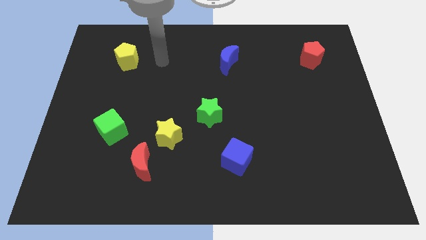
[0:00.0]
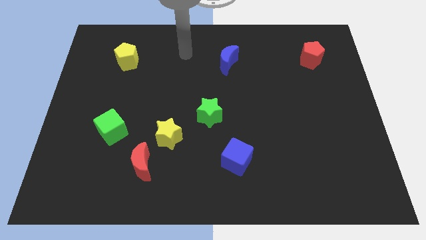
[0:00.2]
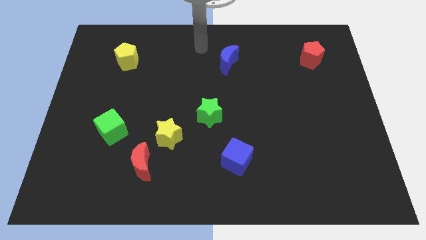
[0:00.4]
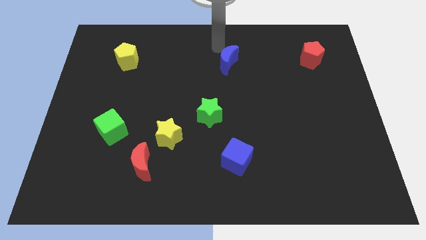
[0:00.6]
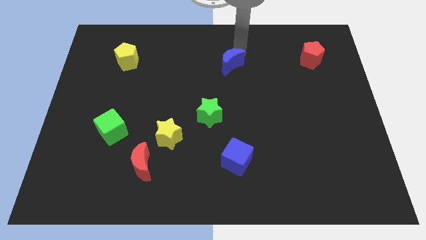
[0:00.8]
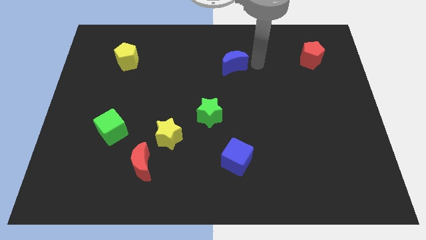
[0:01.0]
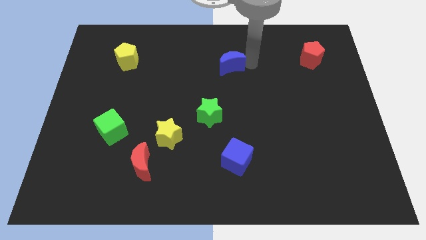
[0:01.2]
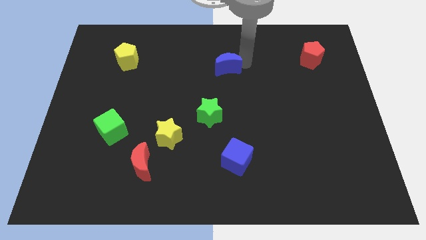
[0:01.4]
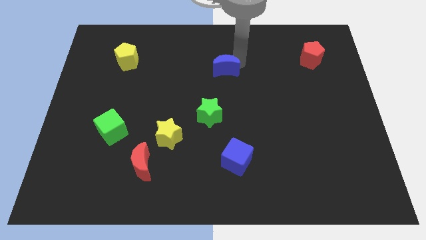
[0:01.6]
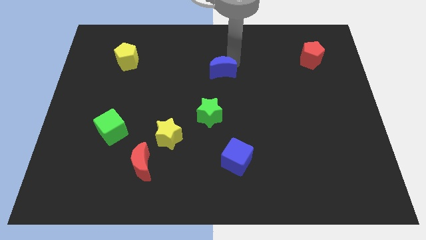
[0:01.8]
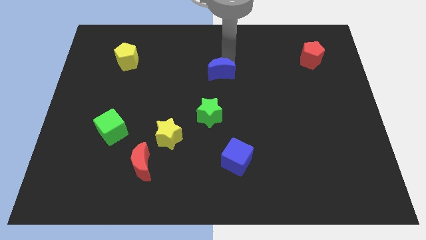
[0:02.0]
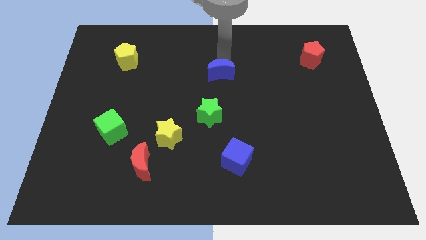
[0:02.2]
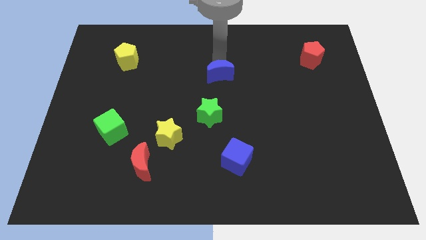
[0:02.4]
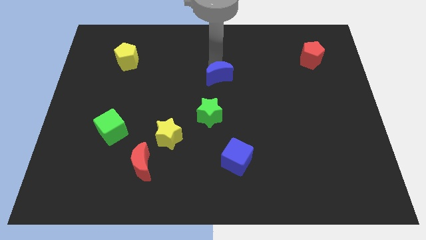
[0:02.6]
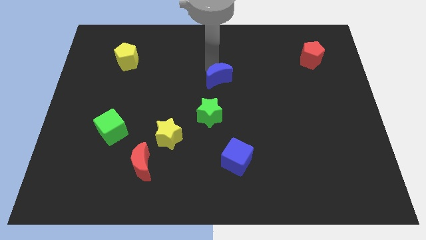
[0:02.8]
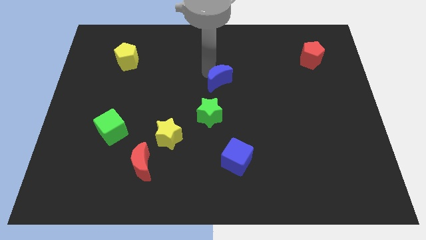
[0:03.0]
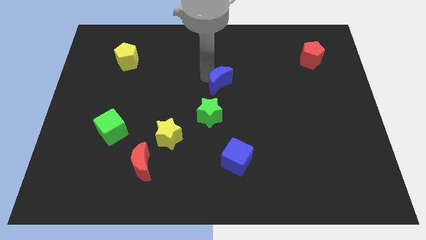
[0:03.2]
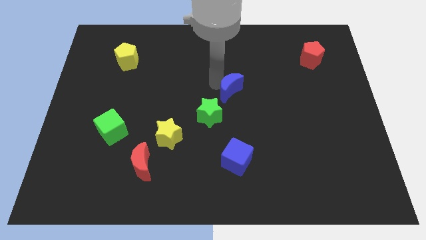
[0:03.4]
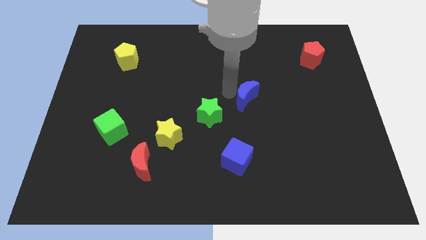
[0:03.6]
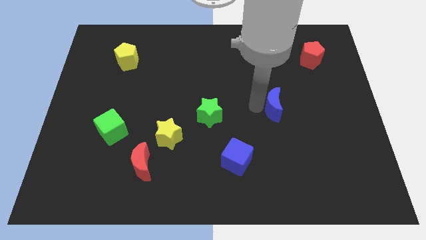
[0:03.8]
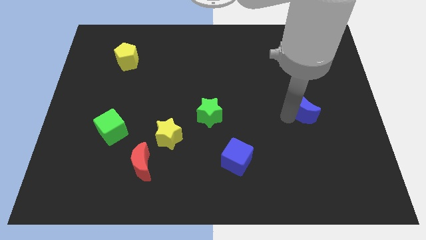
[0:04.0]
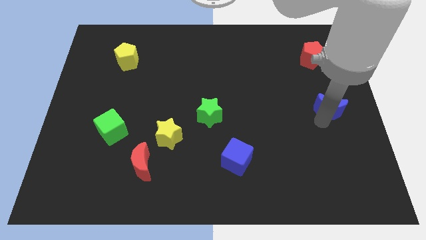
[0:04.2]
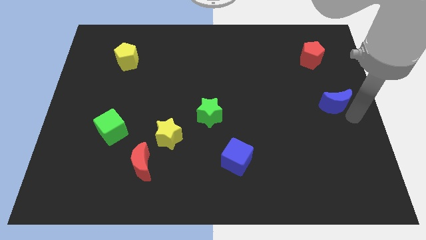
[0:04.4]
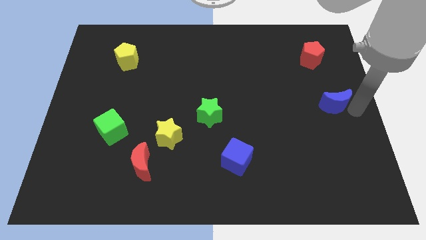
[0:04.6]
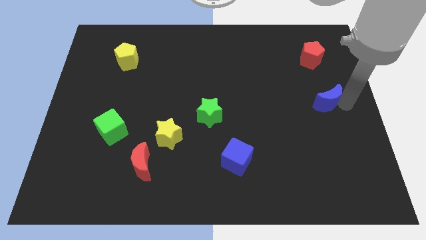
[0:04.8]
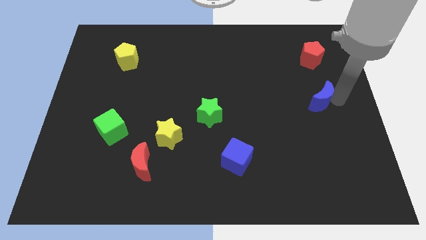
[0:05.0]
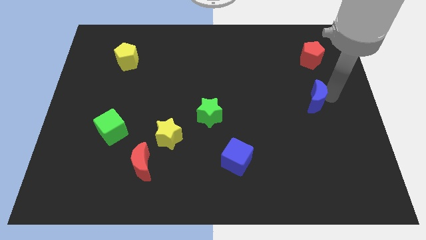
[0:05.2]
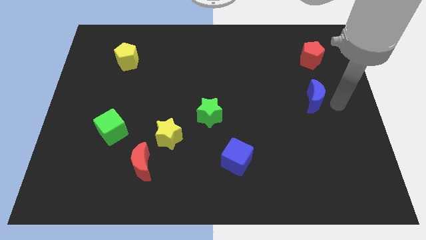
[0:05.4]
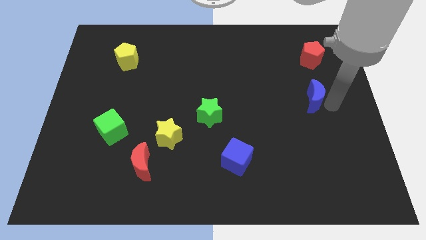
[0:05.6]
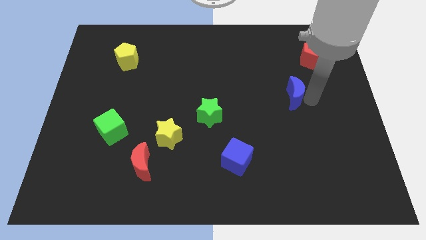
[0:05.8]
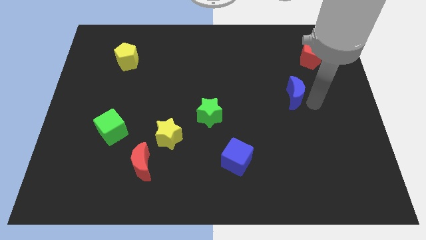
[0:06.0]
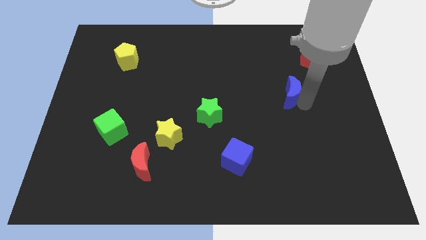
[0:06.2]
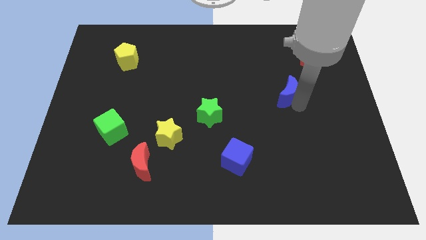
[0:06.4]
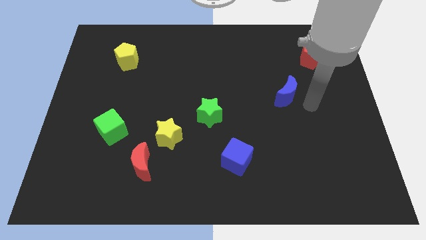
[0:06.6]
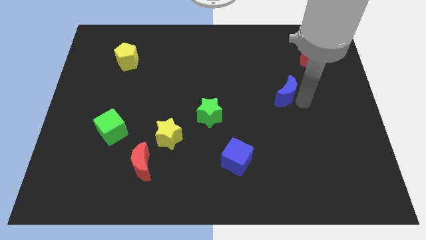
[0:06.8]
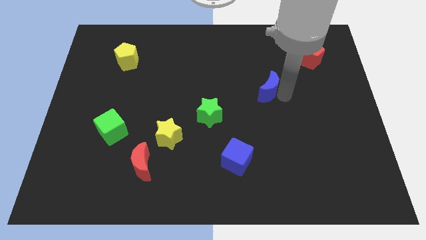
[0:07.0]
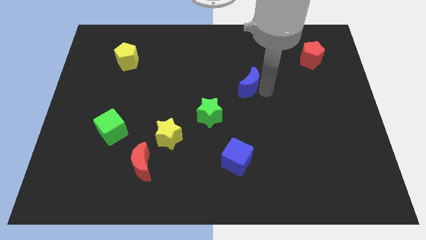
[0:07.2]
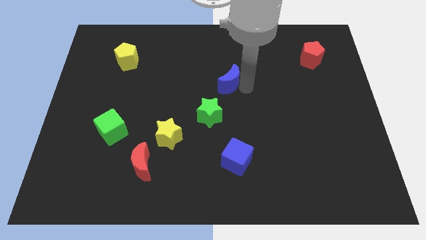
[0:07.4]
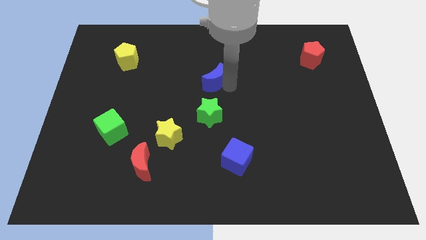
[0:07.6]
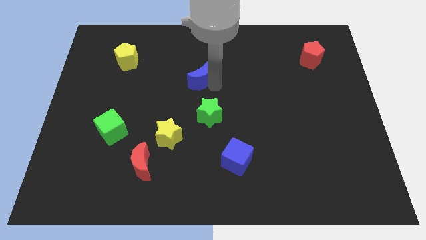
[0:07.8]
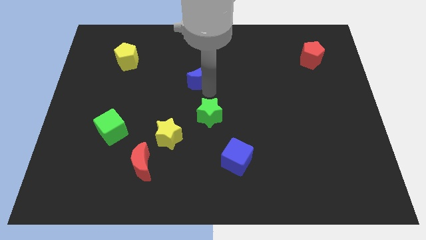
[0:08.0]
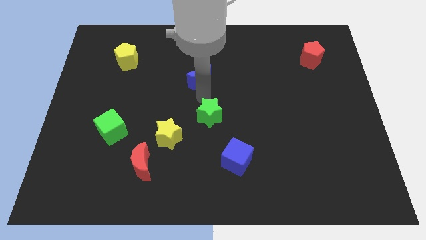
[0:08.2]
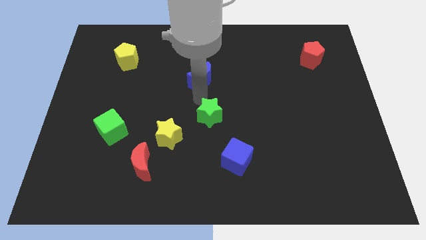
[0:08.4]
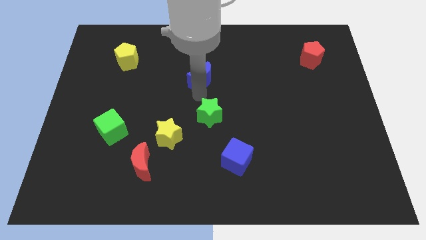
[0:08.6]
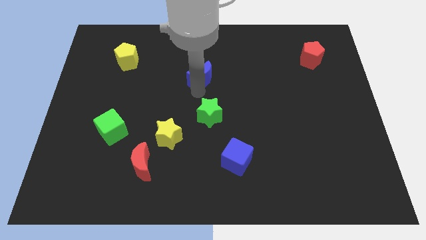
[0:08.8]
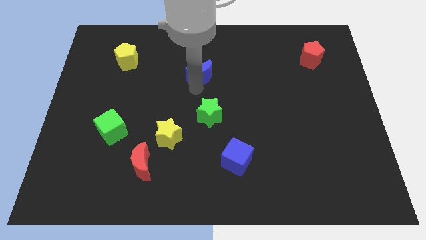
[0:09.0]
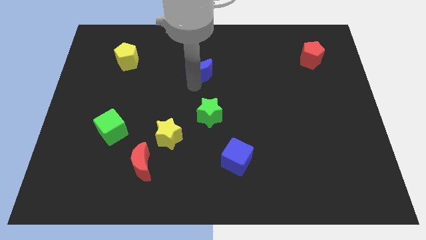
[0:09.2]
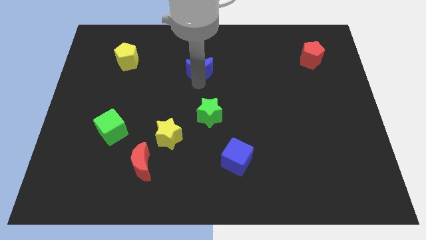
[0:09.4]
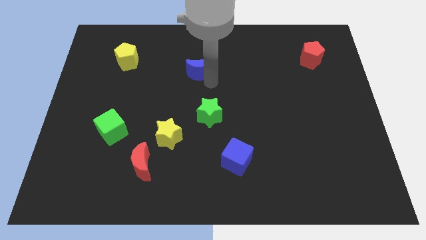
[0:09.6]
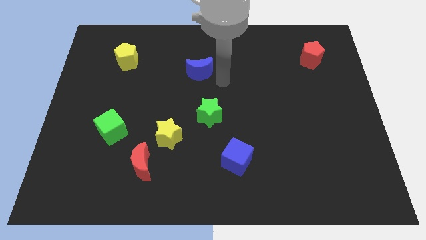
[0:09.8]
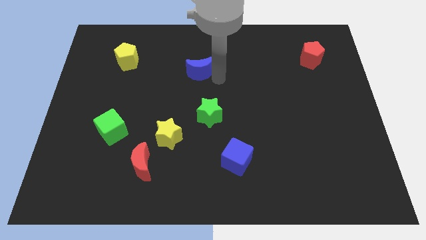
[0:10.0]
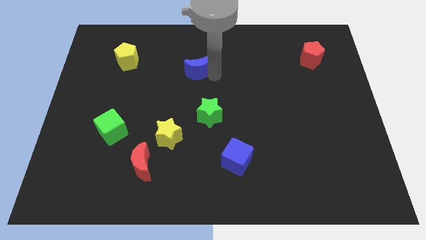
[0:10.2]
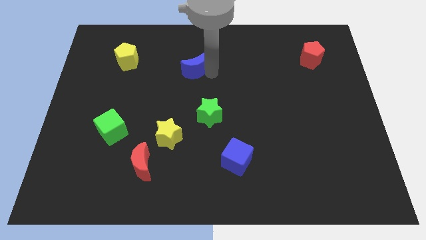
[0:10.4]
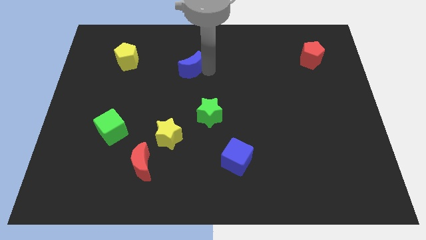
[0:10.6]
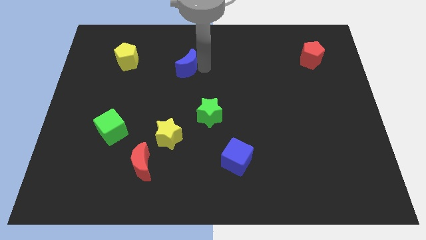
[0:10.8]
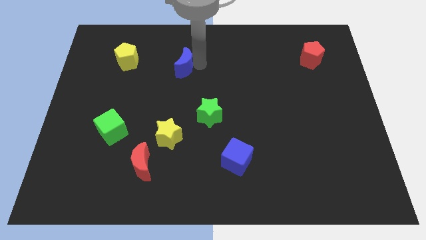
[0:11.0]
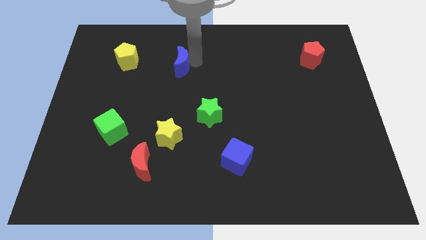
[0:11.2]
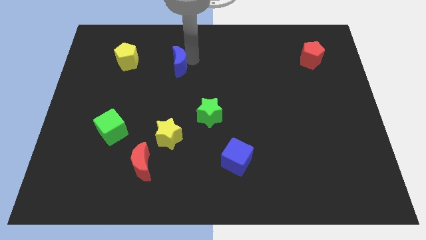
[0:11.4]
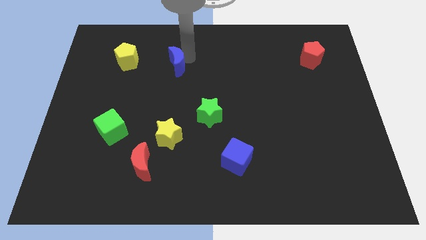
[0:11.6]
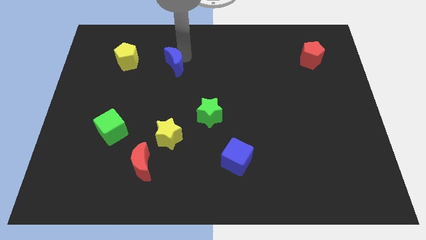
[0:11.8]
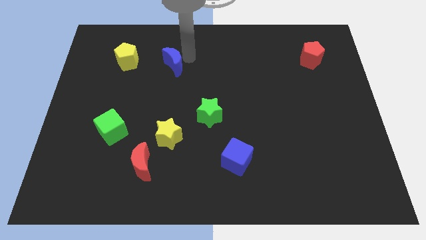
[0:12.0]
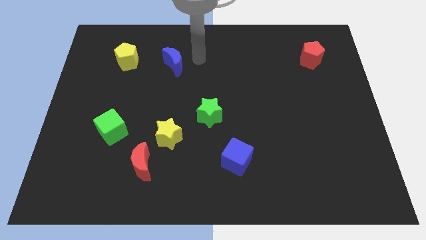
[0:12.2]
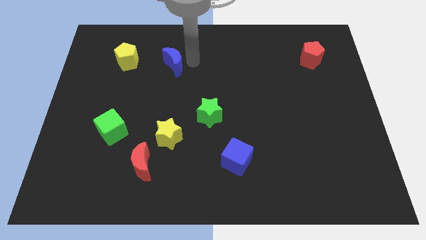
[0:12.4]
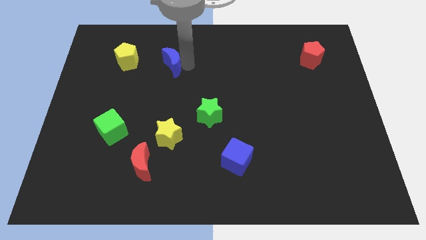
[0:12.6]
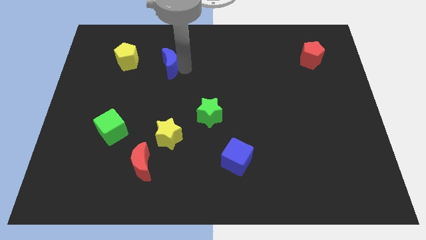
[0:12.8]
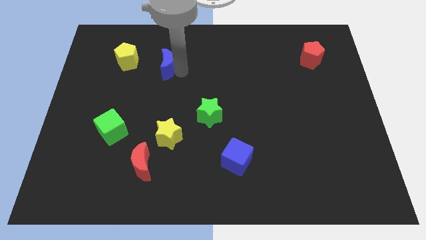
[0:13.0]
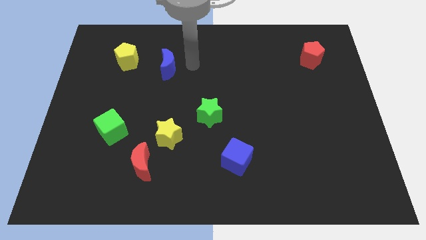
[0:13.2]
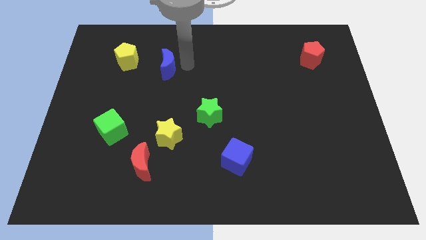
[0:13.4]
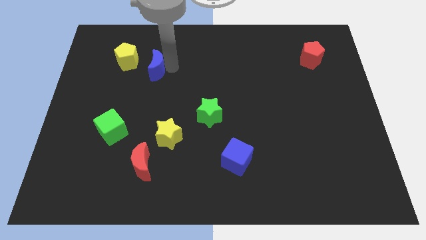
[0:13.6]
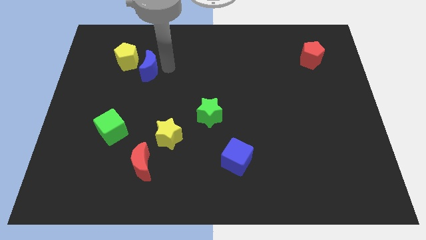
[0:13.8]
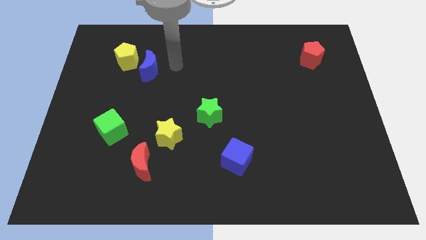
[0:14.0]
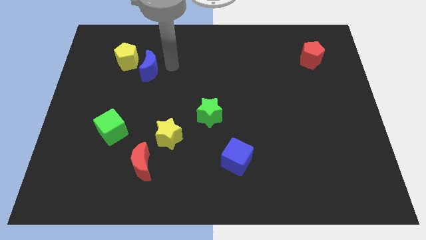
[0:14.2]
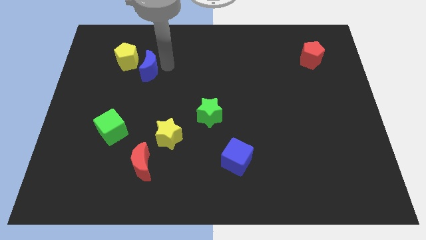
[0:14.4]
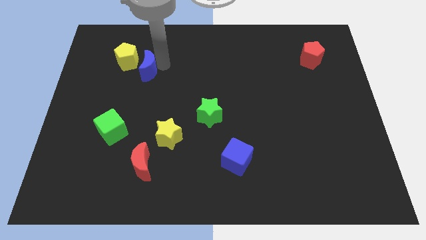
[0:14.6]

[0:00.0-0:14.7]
slide the blue moon to the left

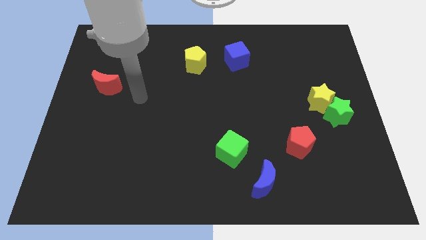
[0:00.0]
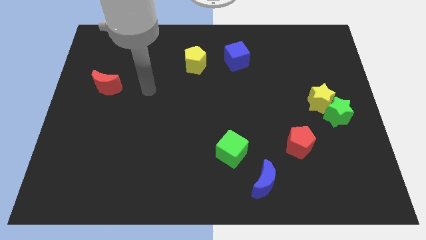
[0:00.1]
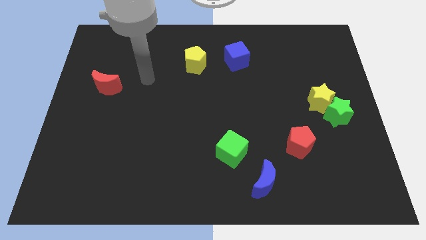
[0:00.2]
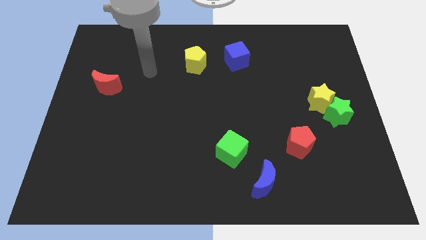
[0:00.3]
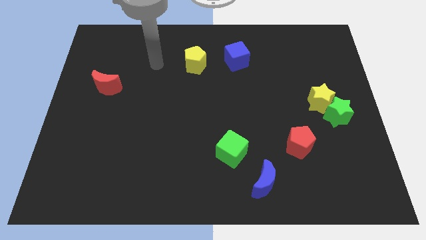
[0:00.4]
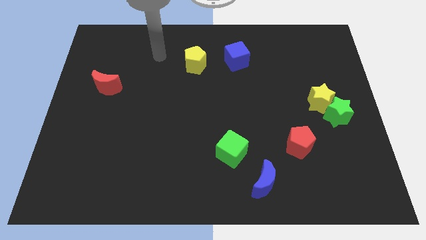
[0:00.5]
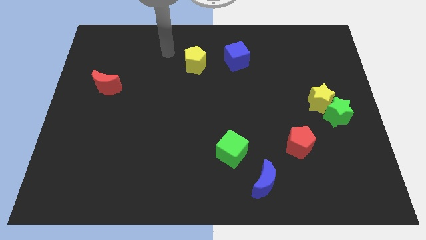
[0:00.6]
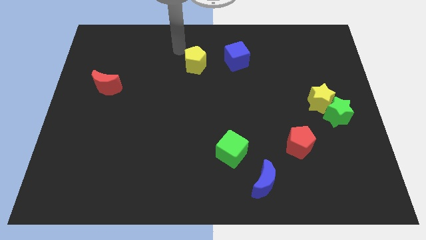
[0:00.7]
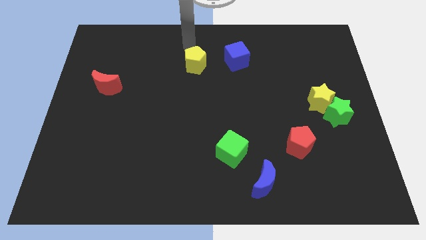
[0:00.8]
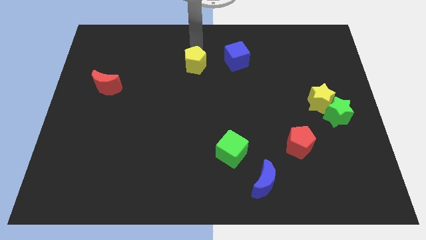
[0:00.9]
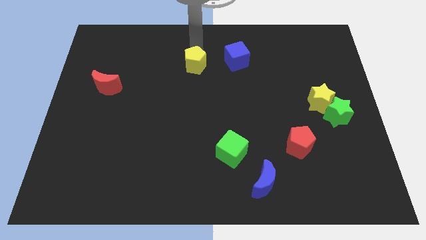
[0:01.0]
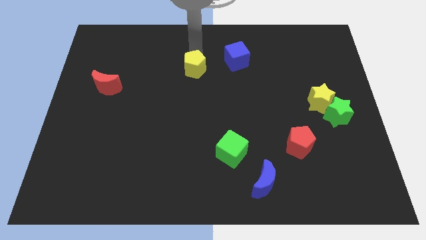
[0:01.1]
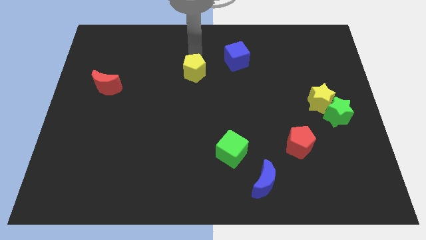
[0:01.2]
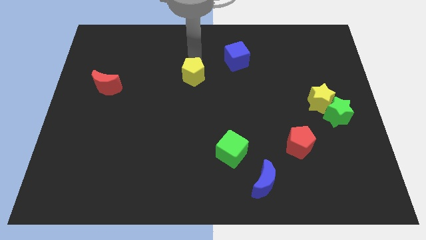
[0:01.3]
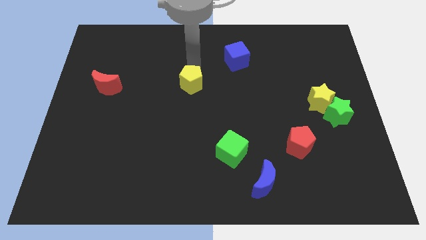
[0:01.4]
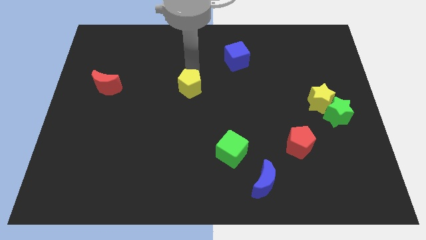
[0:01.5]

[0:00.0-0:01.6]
move the yellow pentagon down a little
